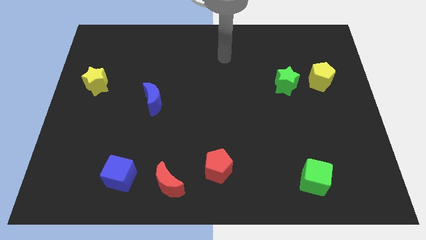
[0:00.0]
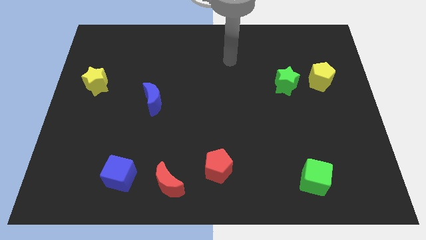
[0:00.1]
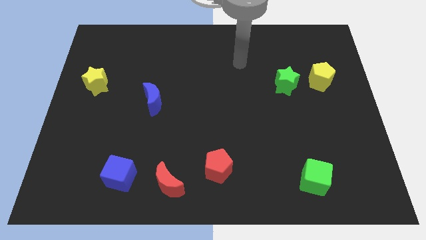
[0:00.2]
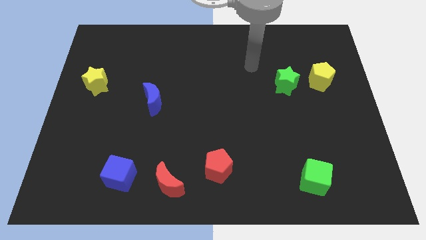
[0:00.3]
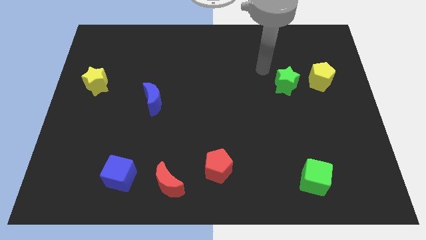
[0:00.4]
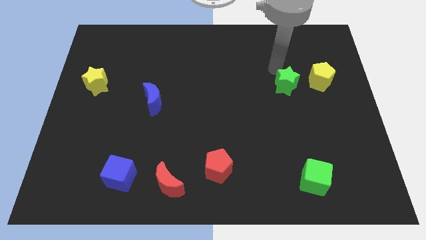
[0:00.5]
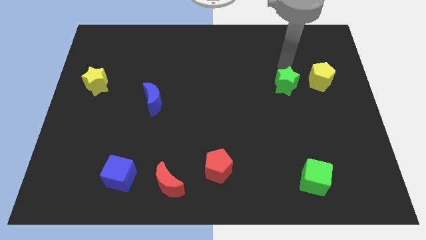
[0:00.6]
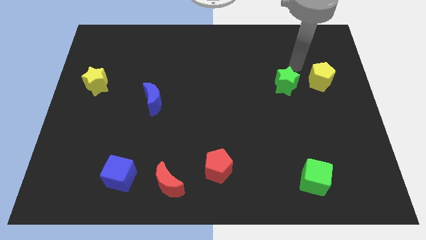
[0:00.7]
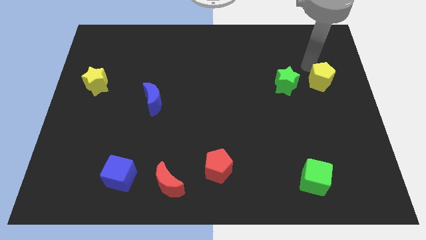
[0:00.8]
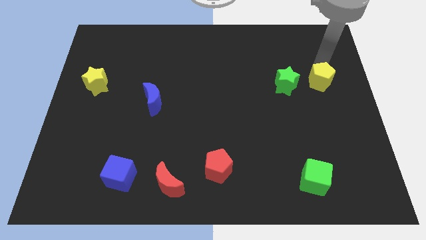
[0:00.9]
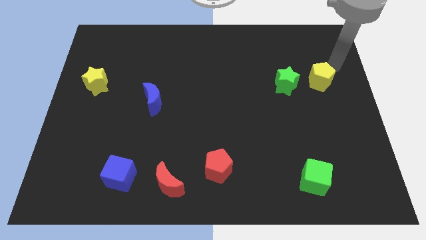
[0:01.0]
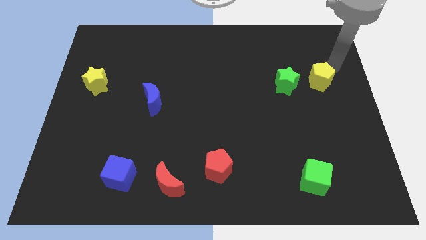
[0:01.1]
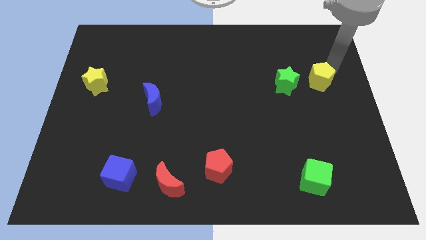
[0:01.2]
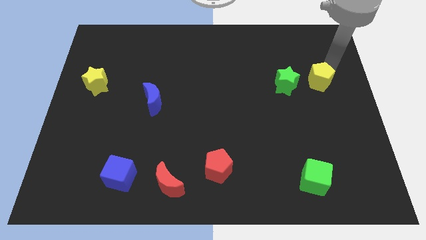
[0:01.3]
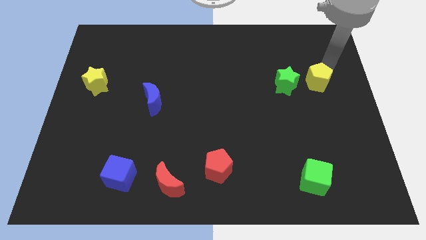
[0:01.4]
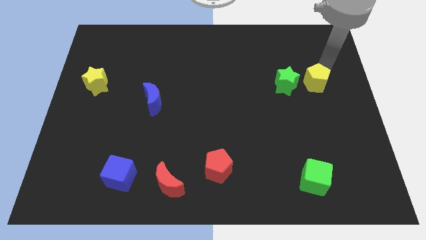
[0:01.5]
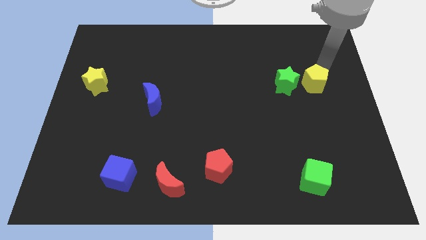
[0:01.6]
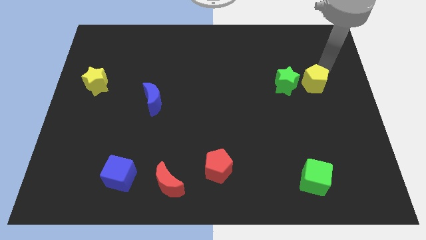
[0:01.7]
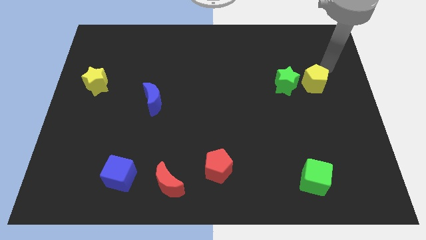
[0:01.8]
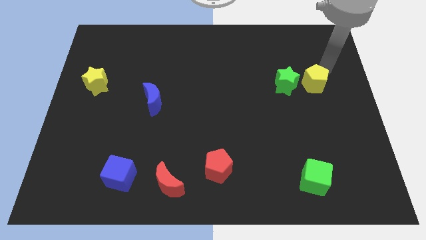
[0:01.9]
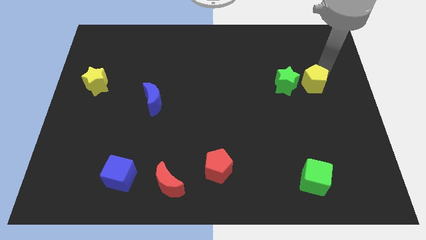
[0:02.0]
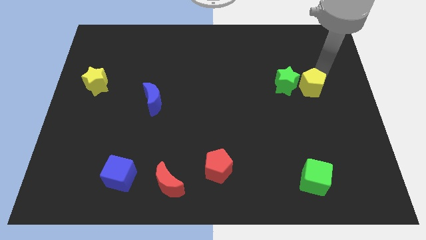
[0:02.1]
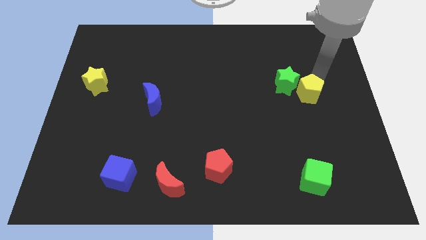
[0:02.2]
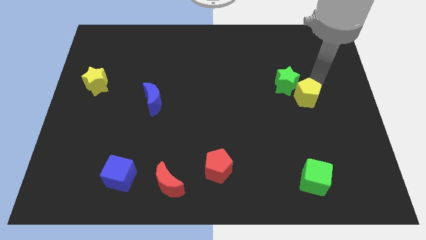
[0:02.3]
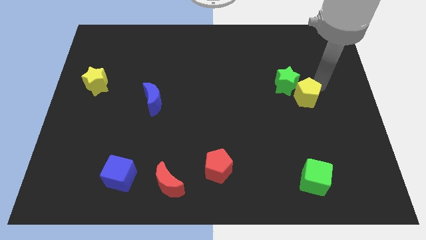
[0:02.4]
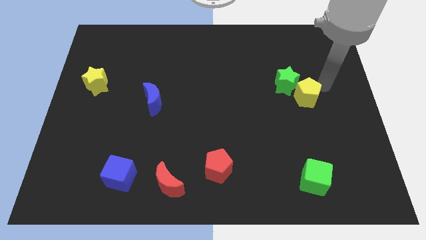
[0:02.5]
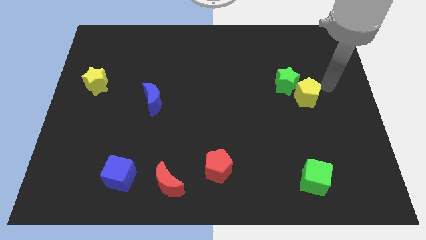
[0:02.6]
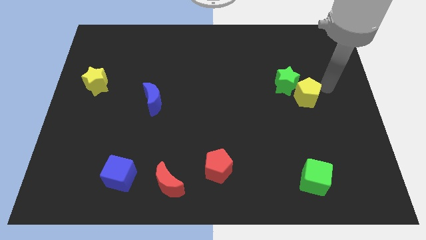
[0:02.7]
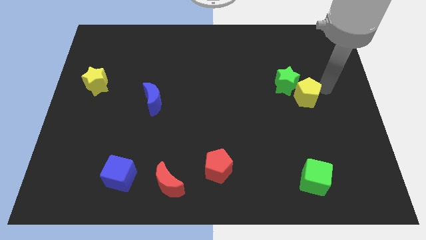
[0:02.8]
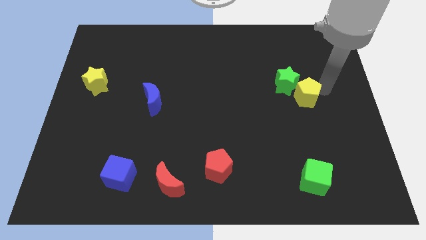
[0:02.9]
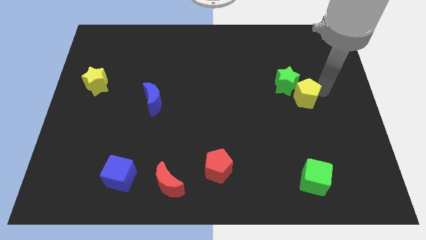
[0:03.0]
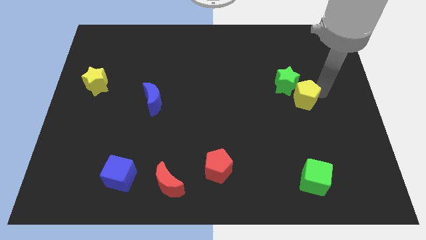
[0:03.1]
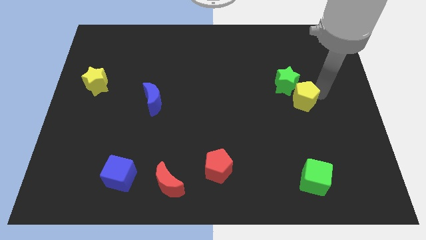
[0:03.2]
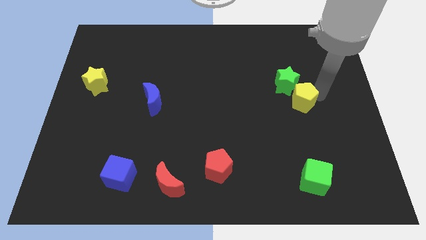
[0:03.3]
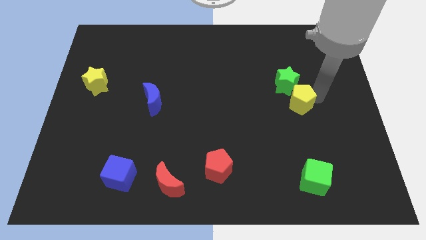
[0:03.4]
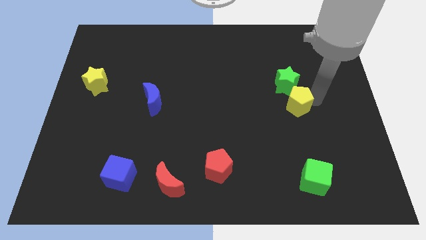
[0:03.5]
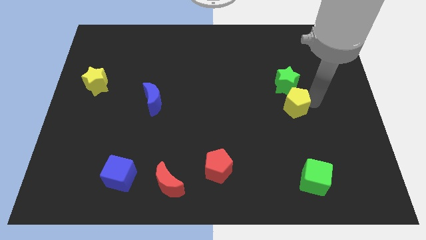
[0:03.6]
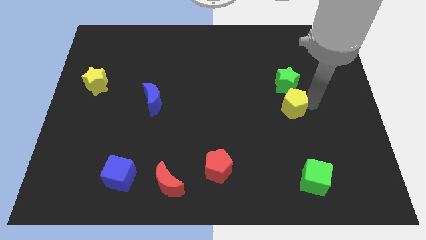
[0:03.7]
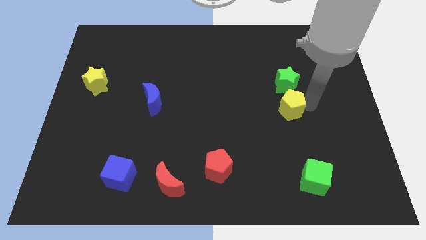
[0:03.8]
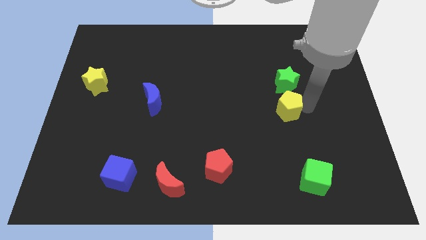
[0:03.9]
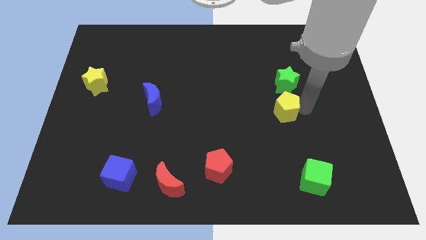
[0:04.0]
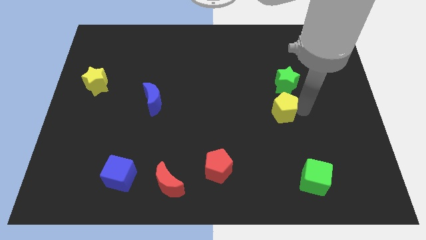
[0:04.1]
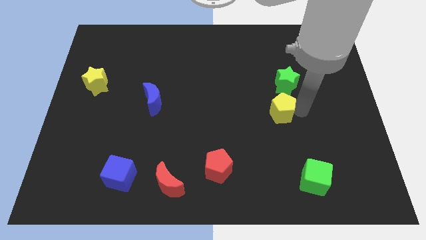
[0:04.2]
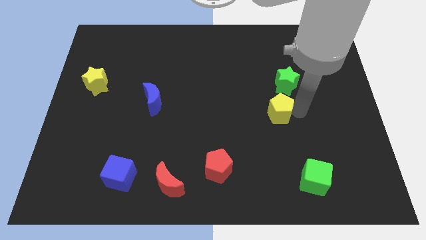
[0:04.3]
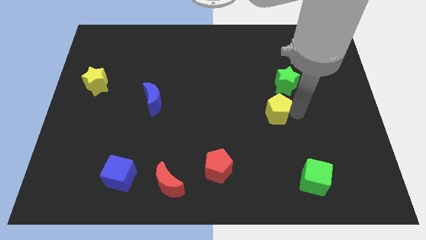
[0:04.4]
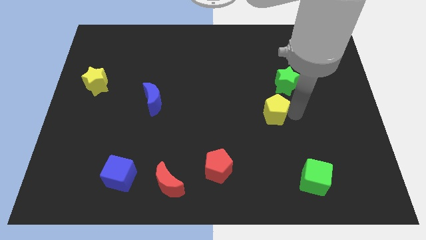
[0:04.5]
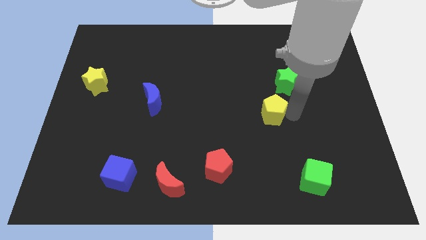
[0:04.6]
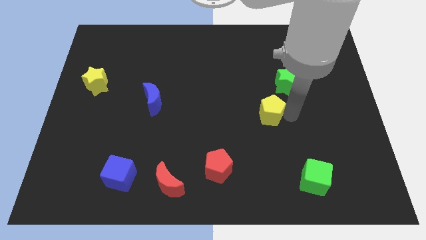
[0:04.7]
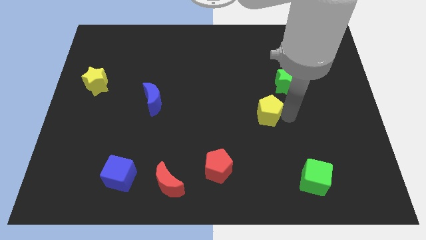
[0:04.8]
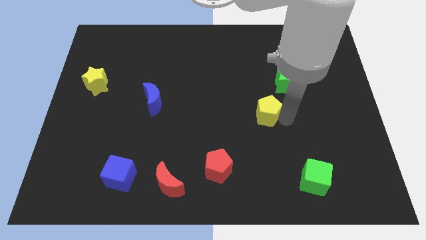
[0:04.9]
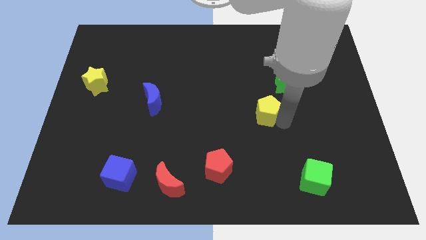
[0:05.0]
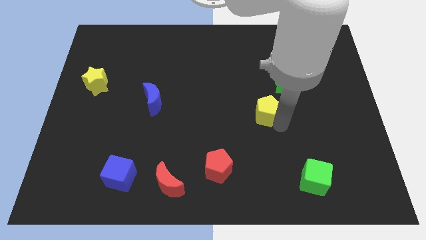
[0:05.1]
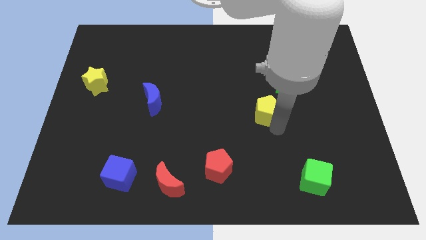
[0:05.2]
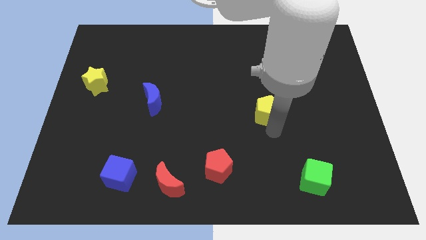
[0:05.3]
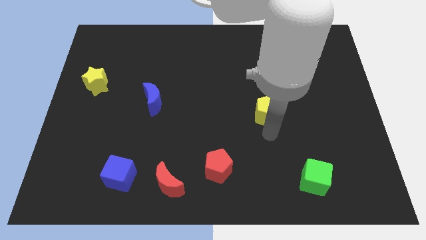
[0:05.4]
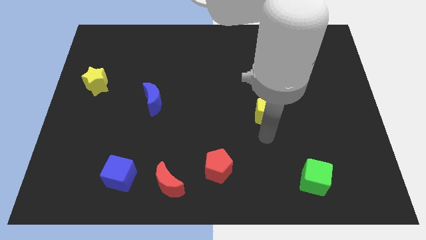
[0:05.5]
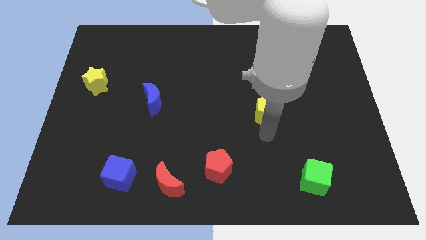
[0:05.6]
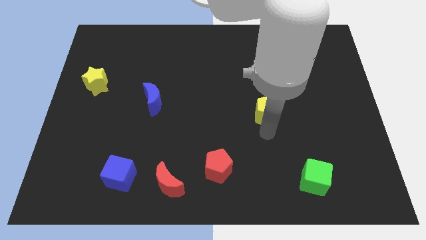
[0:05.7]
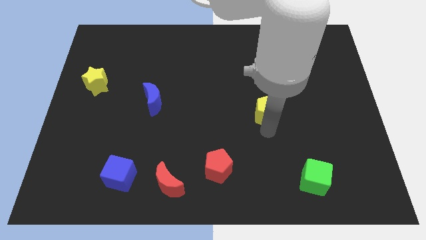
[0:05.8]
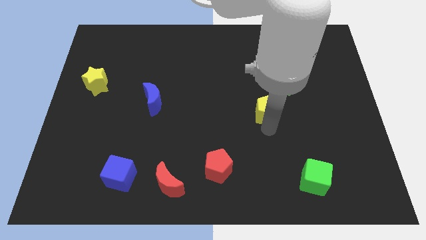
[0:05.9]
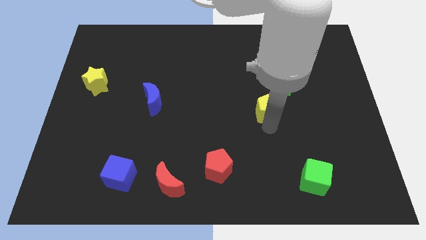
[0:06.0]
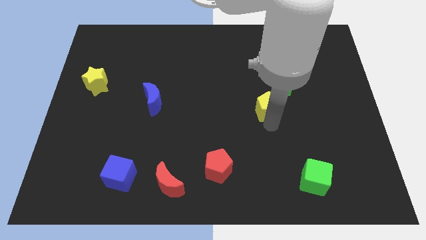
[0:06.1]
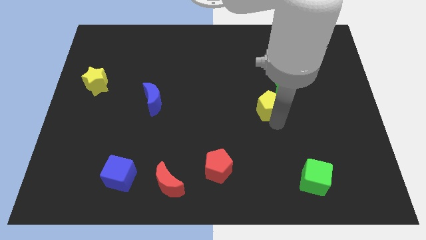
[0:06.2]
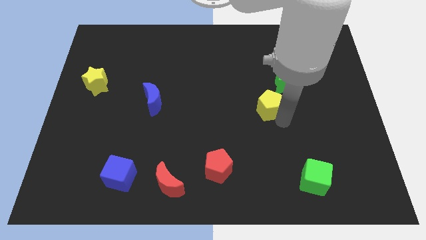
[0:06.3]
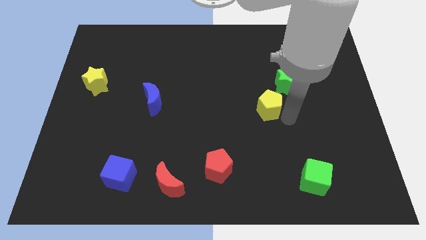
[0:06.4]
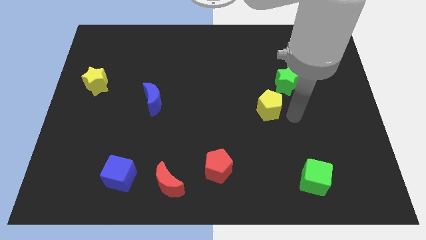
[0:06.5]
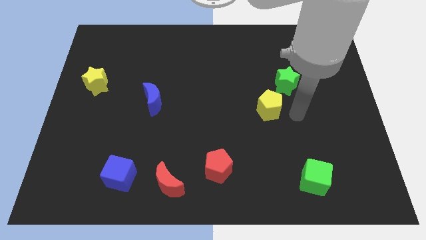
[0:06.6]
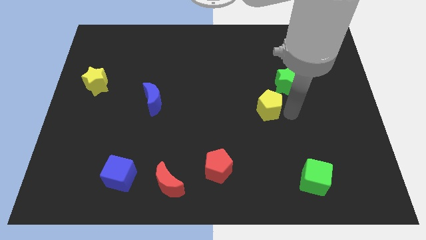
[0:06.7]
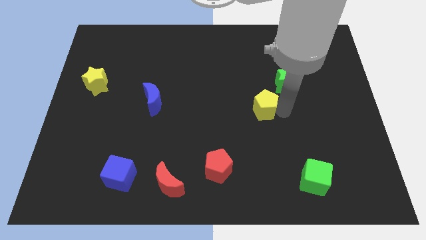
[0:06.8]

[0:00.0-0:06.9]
slide the yellow pentagon to the center of the board
